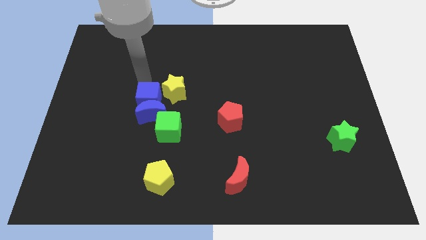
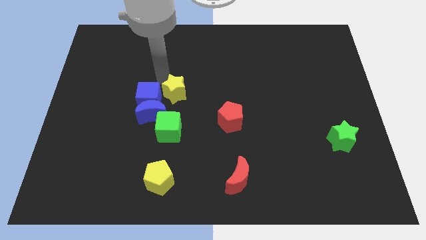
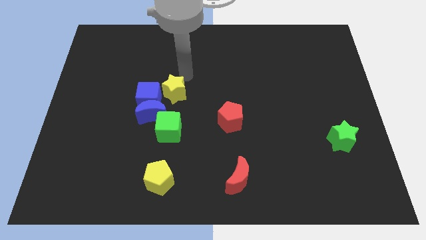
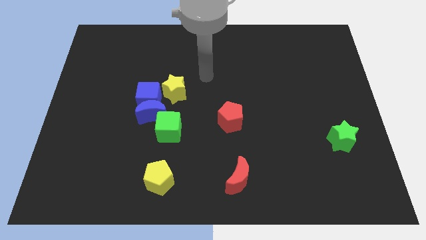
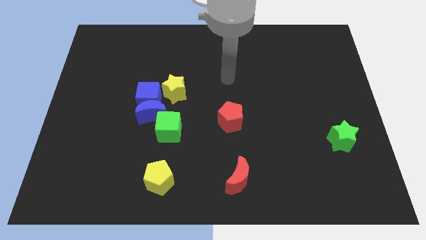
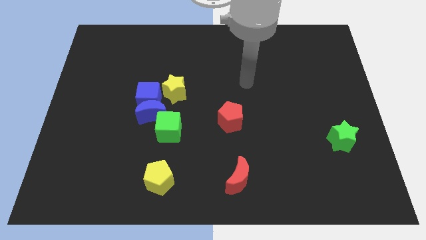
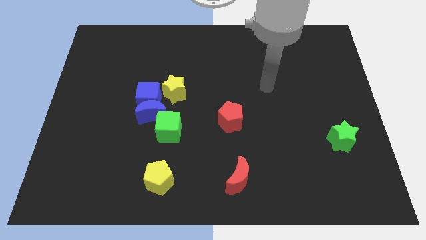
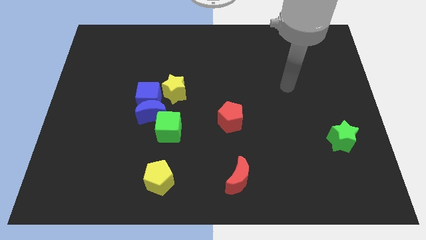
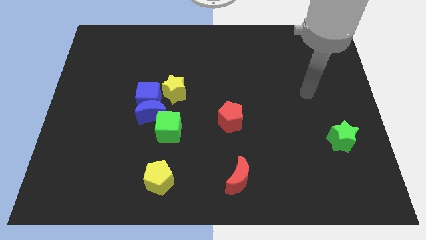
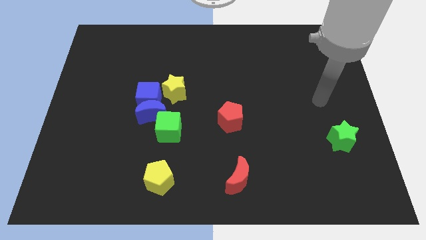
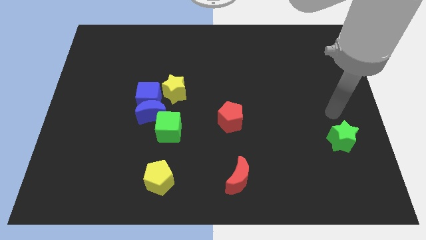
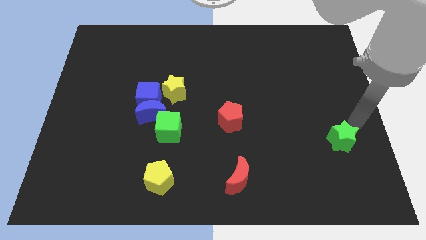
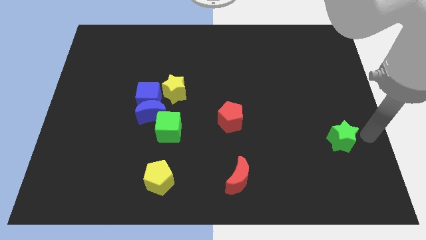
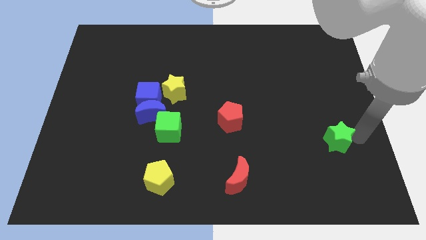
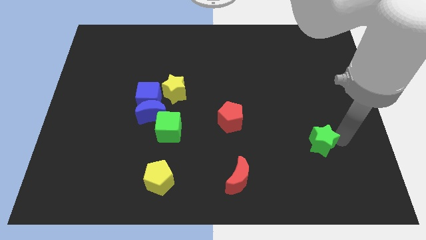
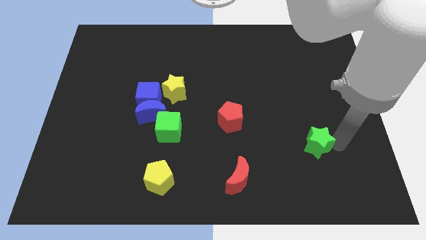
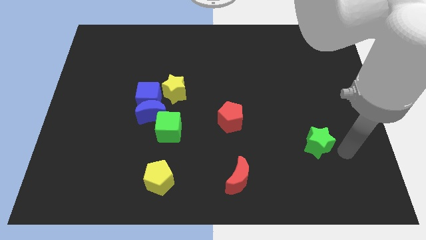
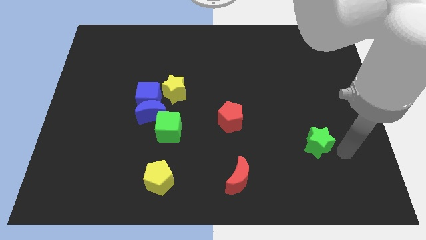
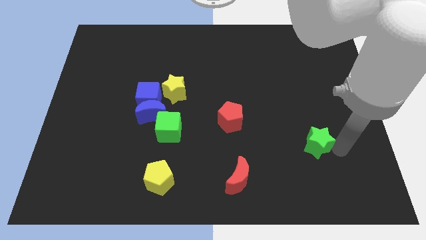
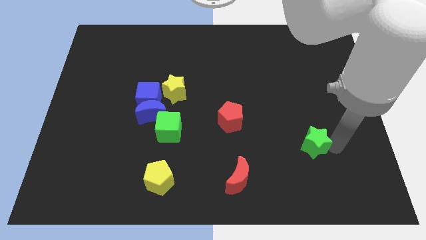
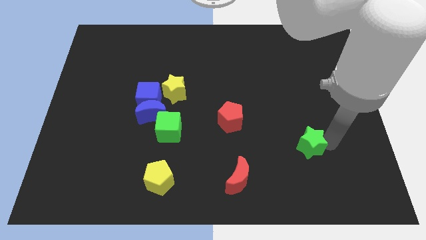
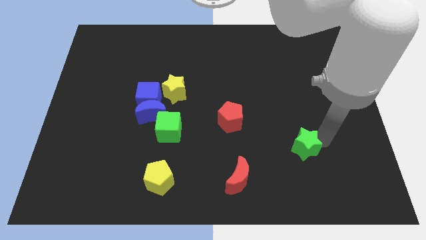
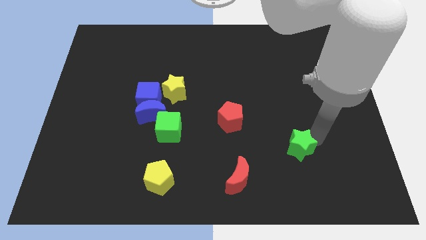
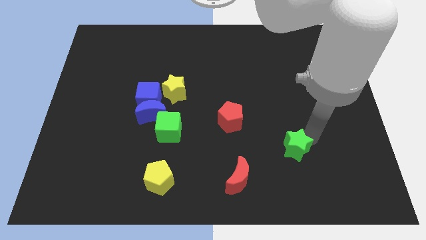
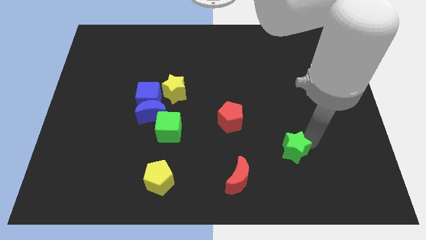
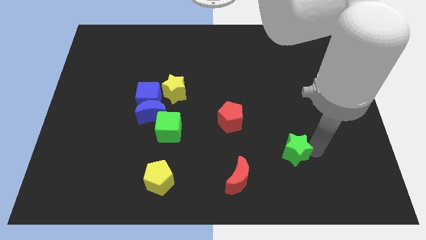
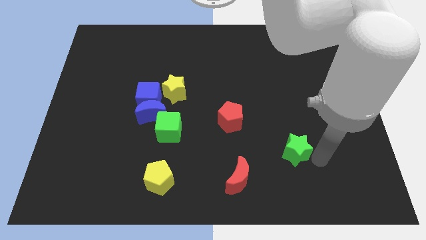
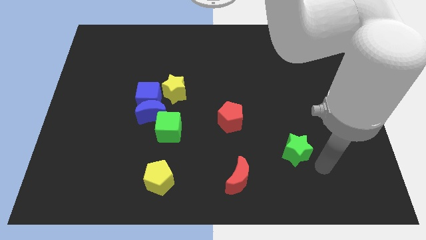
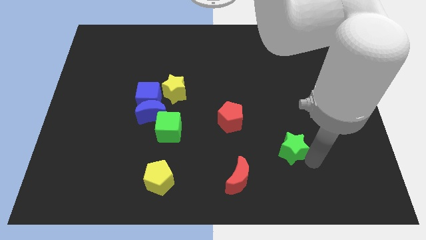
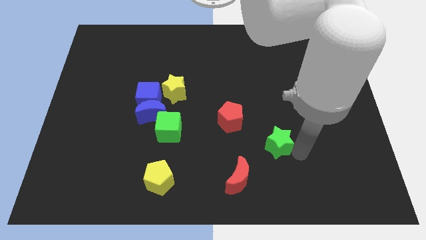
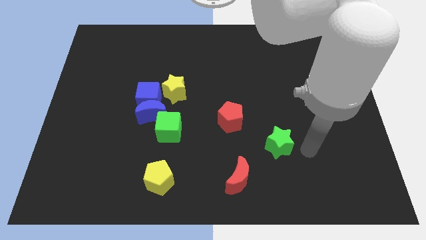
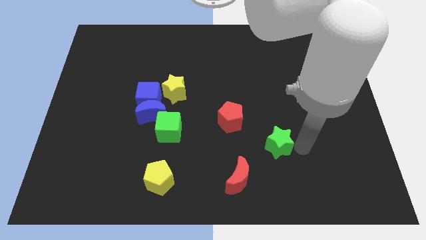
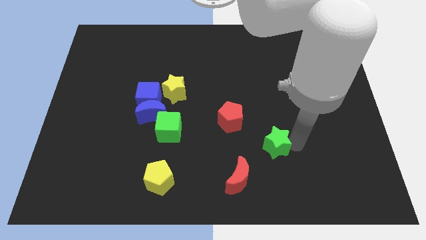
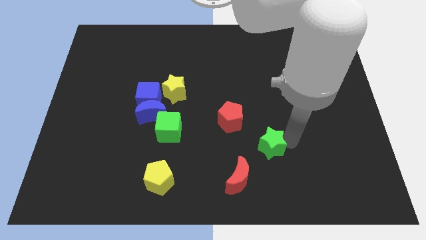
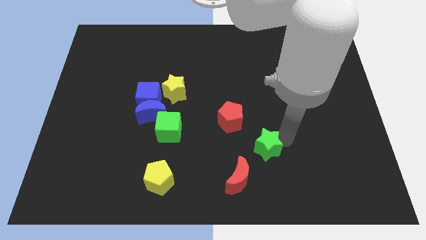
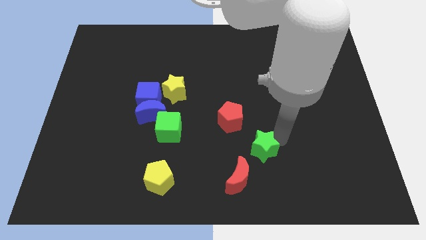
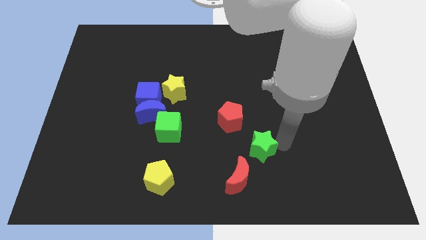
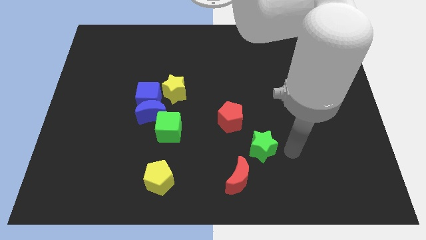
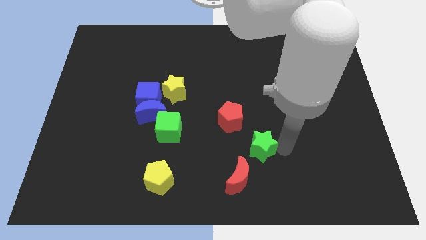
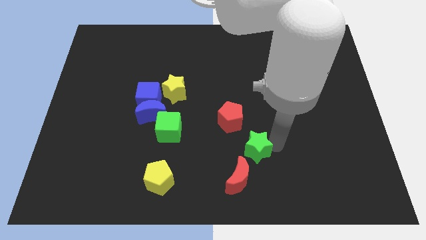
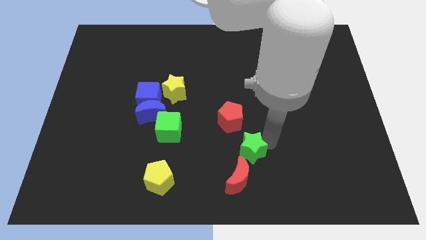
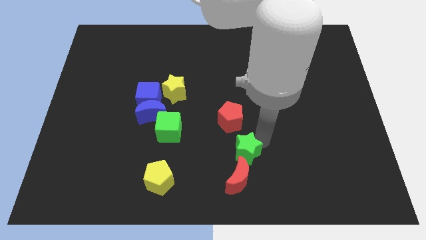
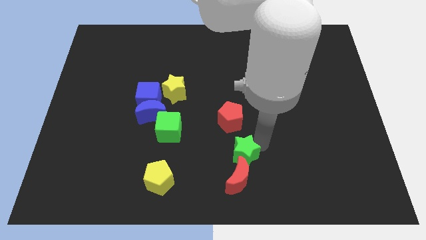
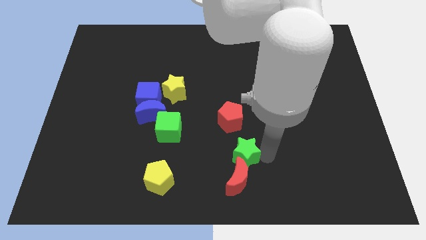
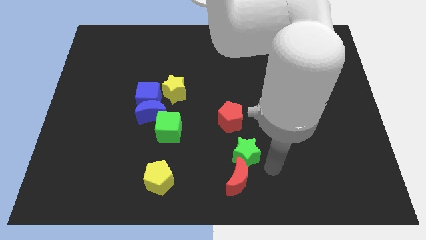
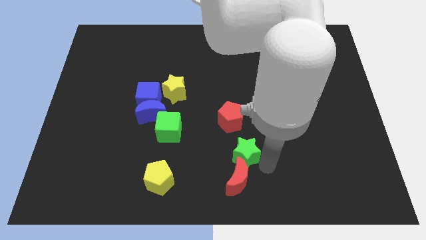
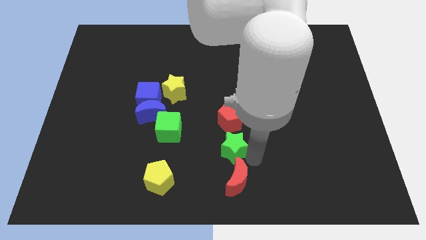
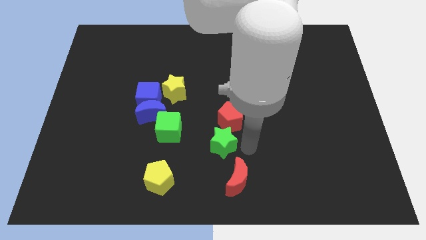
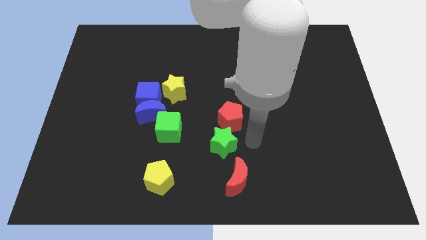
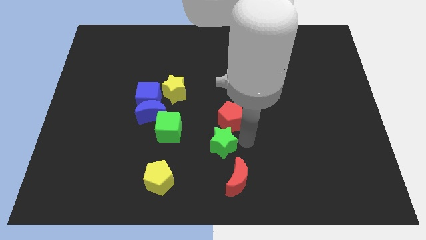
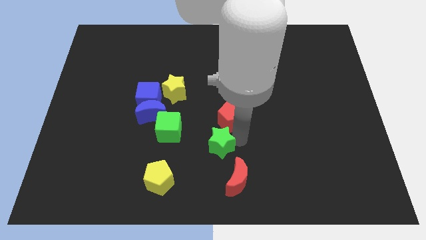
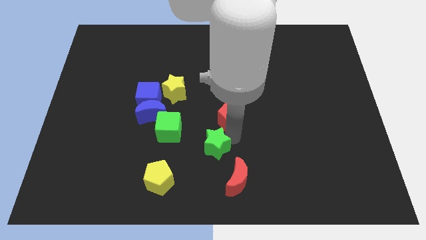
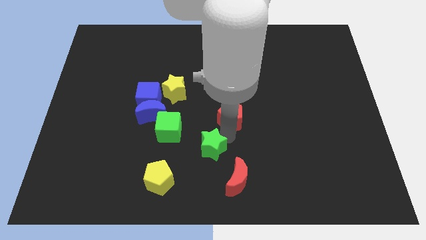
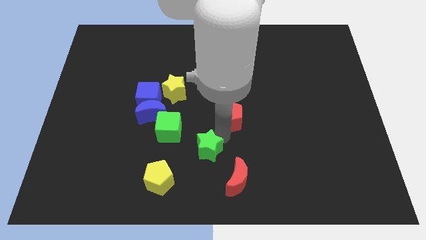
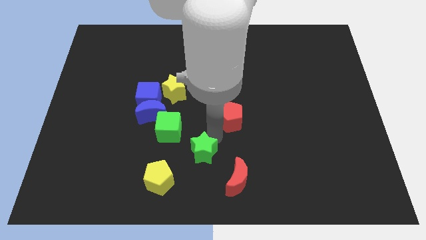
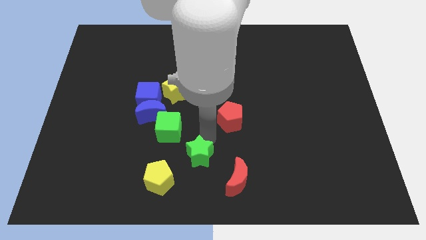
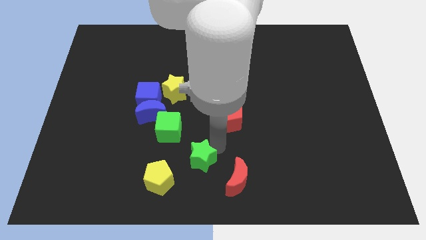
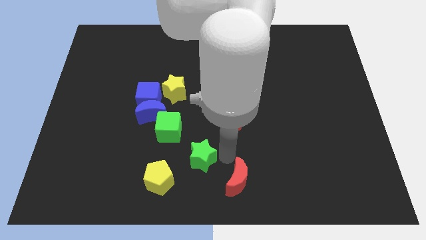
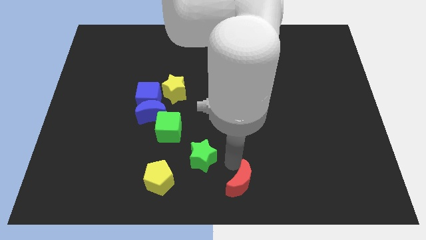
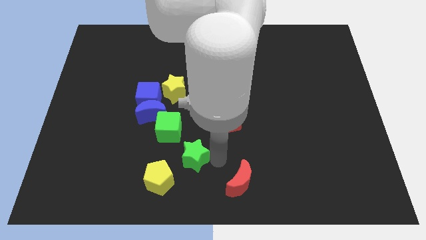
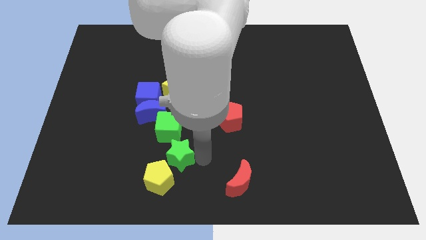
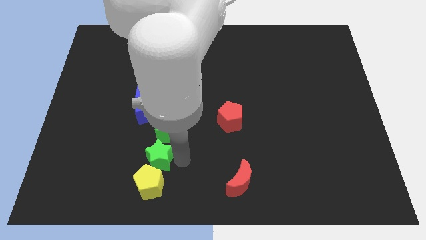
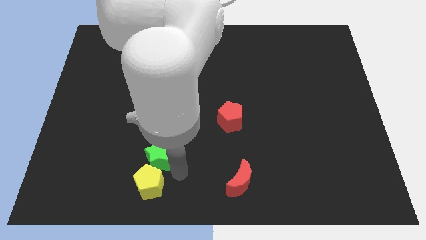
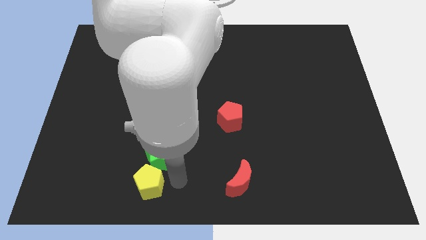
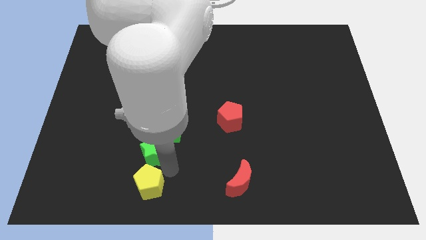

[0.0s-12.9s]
slide the green star to the bottom side of the blue cube
